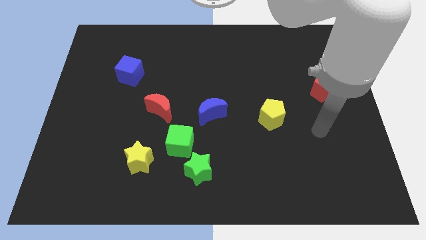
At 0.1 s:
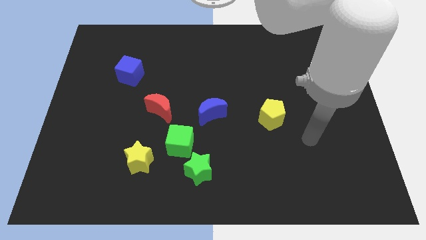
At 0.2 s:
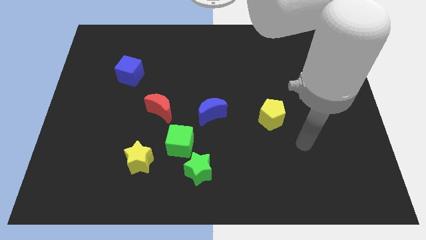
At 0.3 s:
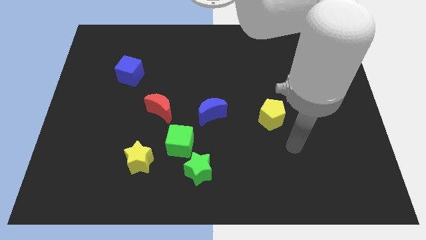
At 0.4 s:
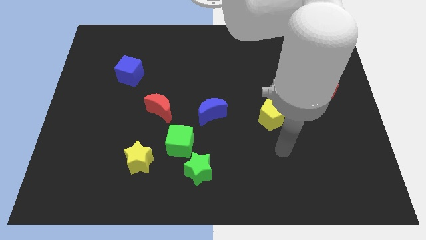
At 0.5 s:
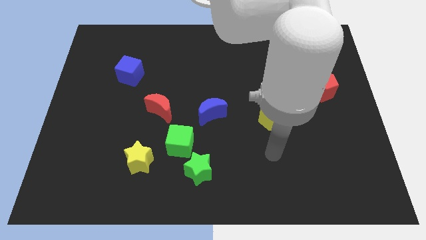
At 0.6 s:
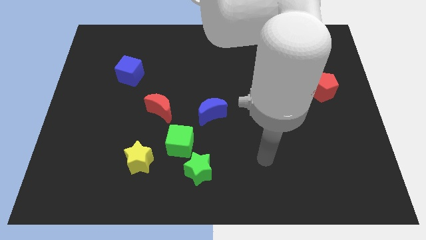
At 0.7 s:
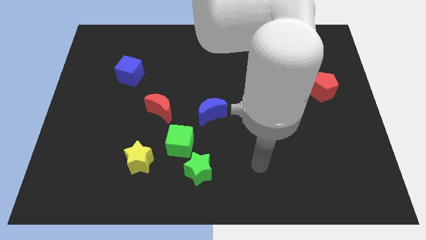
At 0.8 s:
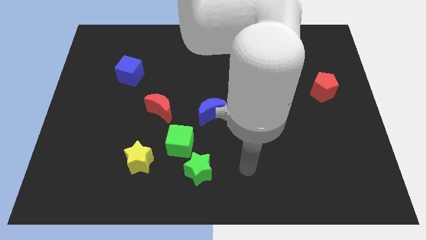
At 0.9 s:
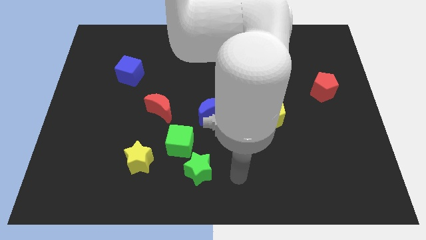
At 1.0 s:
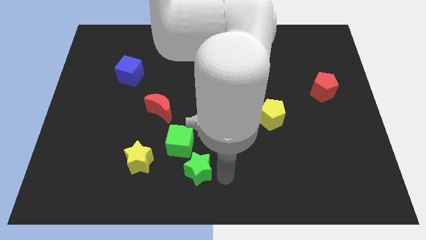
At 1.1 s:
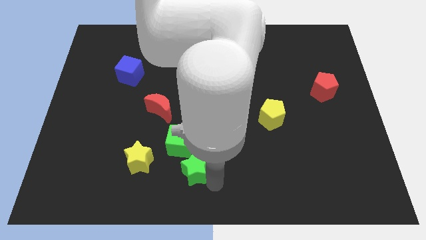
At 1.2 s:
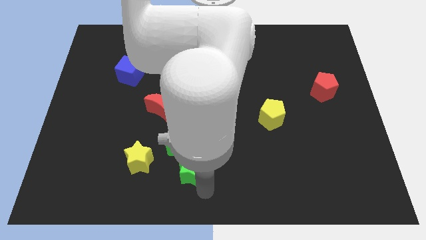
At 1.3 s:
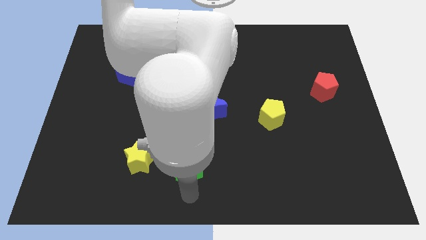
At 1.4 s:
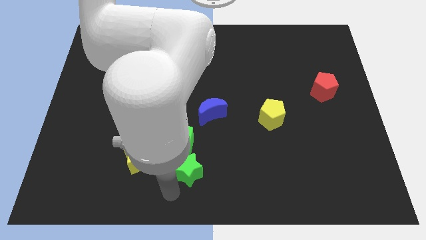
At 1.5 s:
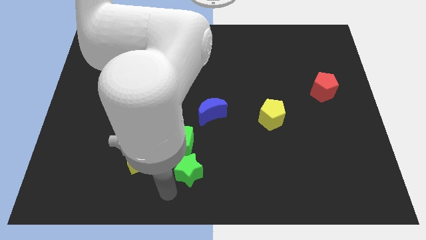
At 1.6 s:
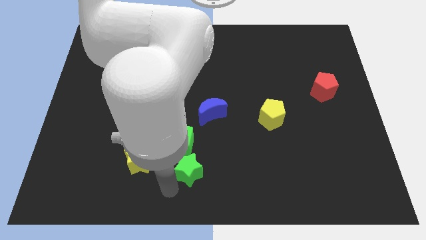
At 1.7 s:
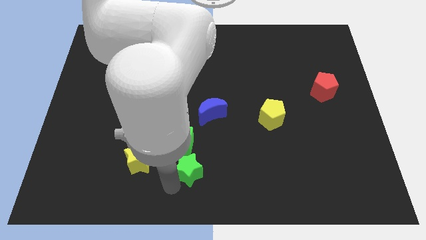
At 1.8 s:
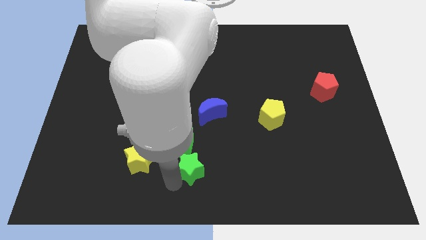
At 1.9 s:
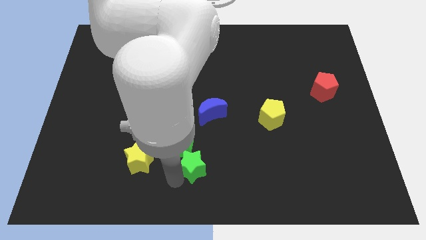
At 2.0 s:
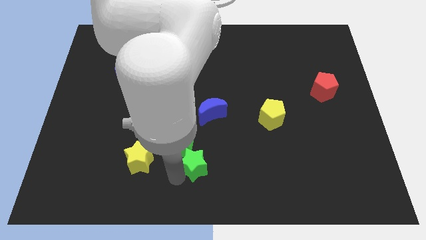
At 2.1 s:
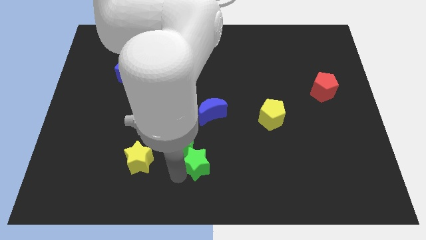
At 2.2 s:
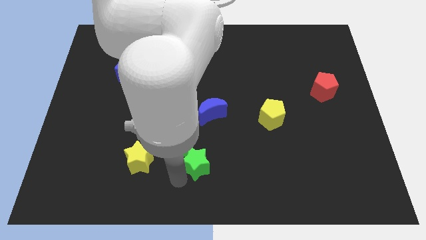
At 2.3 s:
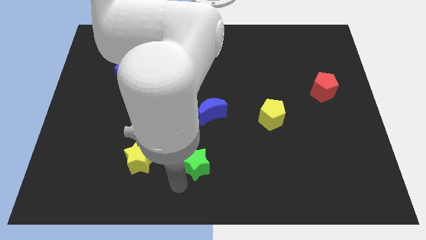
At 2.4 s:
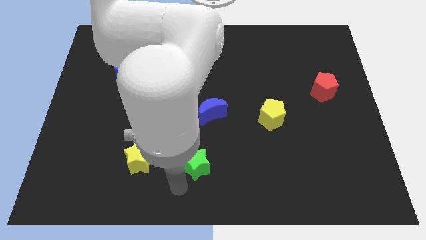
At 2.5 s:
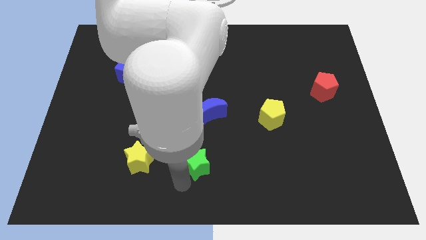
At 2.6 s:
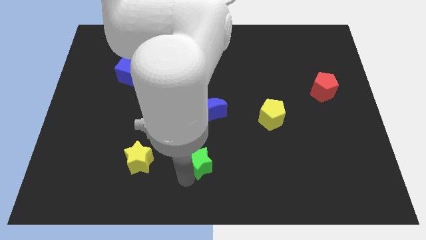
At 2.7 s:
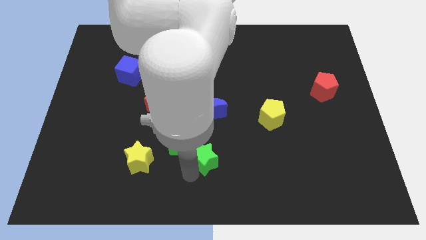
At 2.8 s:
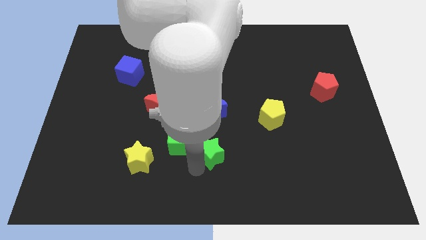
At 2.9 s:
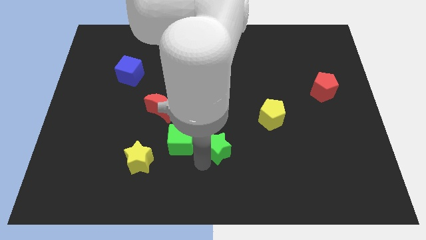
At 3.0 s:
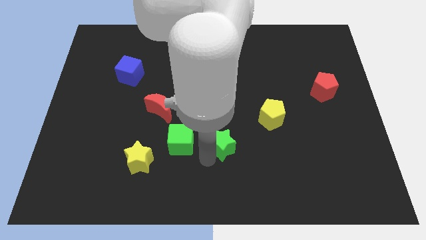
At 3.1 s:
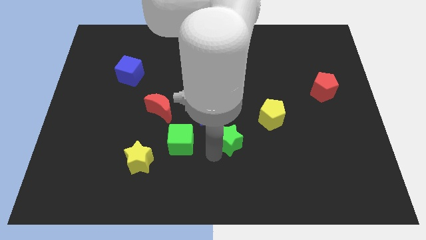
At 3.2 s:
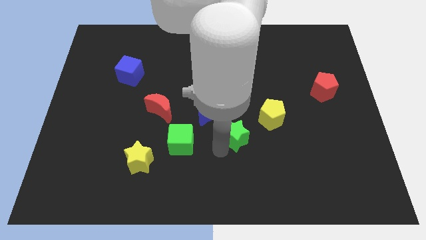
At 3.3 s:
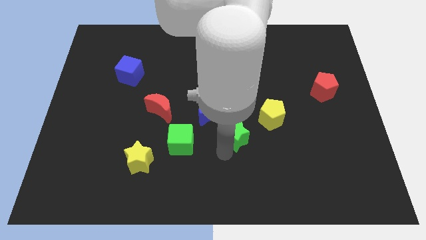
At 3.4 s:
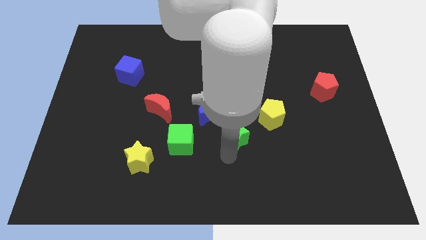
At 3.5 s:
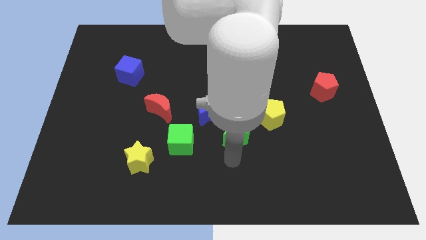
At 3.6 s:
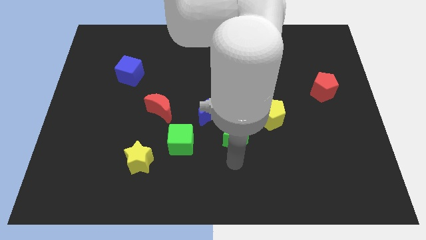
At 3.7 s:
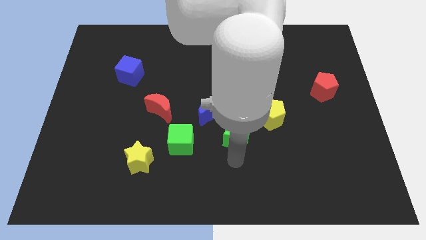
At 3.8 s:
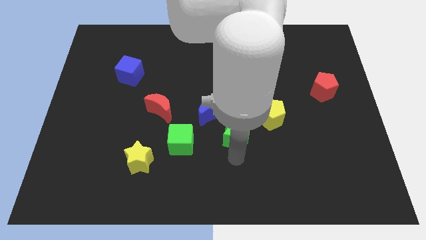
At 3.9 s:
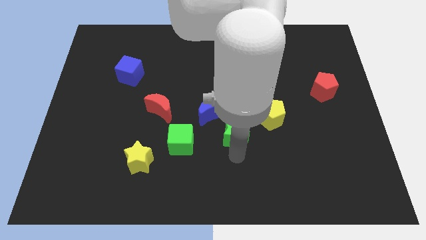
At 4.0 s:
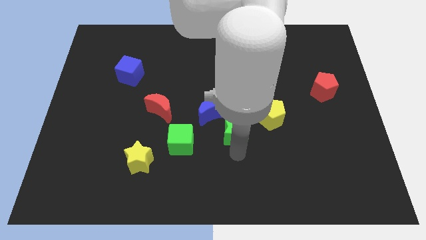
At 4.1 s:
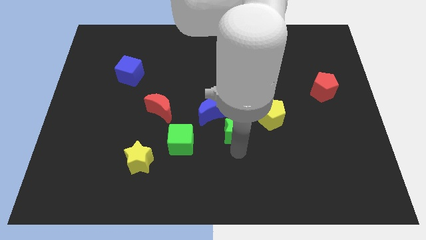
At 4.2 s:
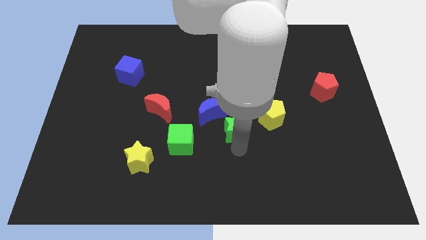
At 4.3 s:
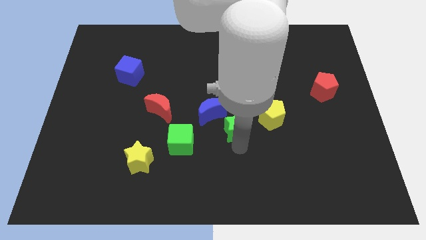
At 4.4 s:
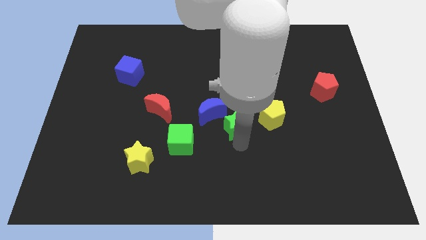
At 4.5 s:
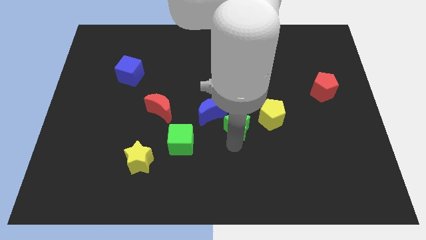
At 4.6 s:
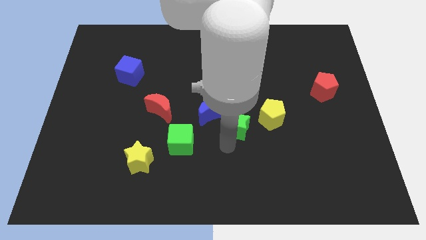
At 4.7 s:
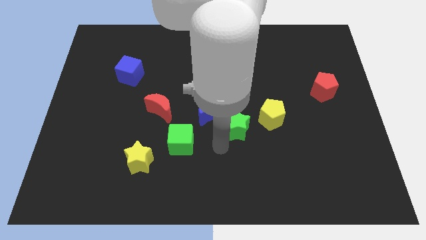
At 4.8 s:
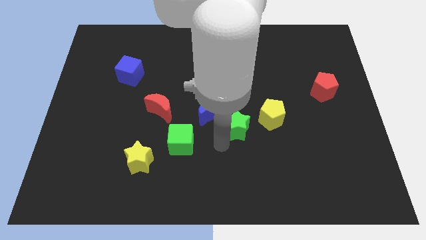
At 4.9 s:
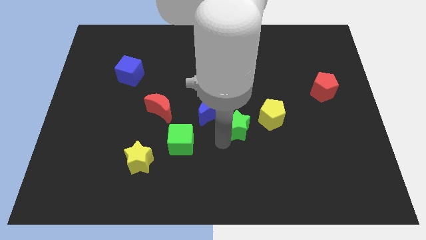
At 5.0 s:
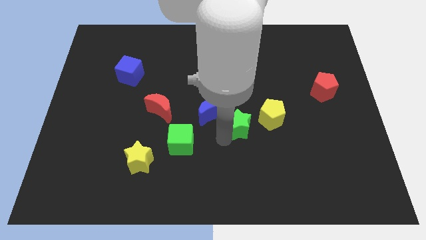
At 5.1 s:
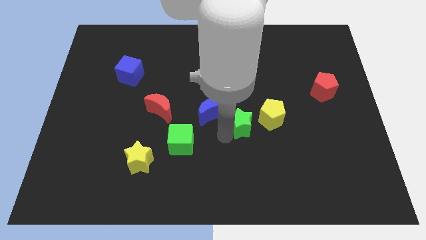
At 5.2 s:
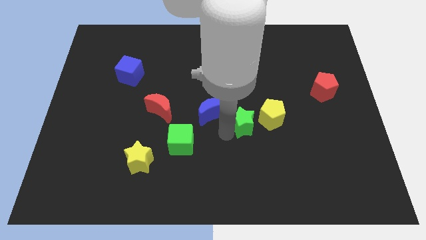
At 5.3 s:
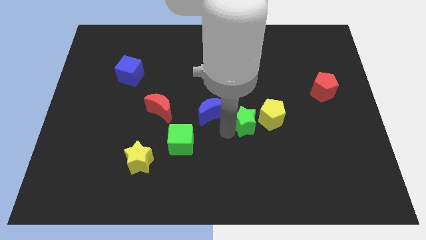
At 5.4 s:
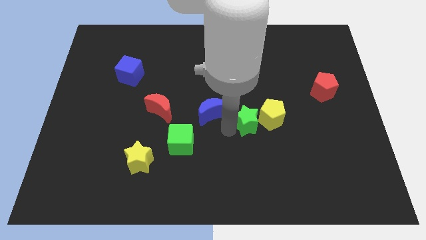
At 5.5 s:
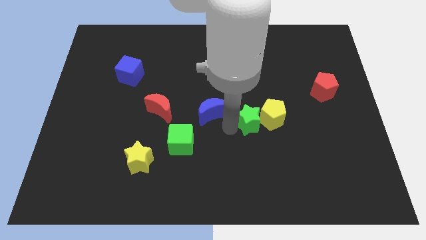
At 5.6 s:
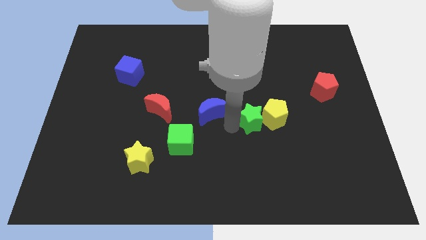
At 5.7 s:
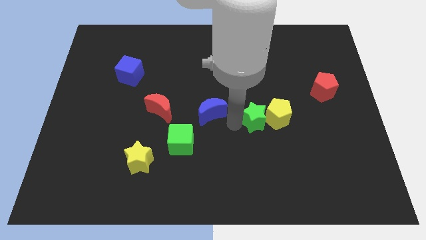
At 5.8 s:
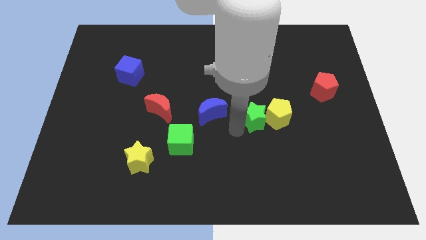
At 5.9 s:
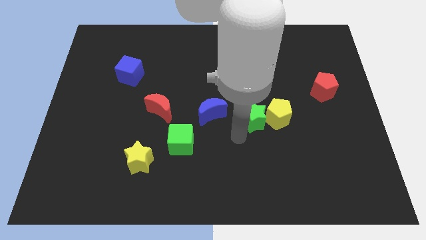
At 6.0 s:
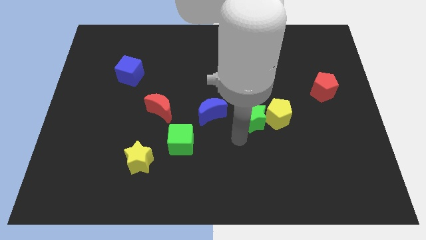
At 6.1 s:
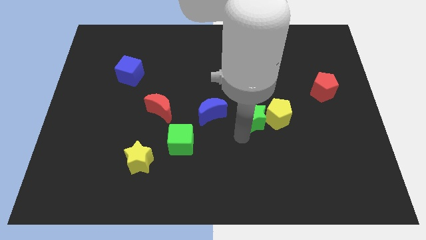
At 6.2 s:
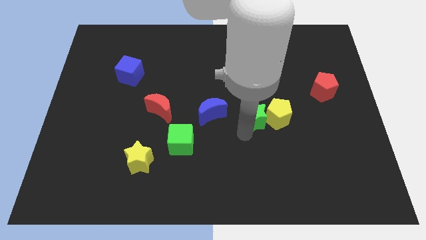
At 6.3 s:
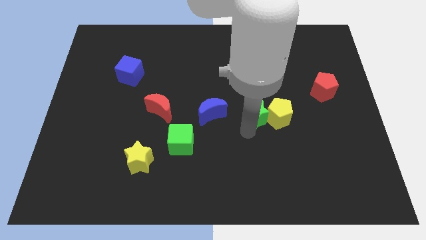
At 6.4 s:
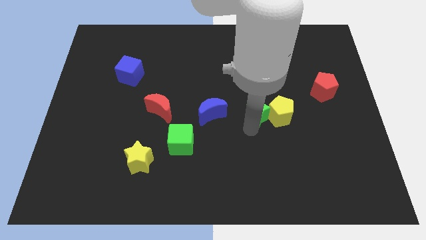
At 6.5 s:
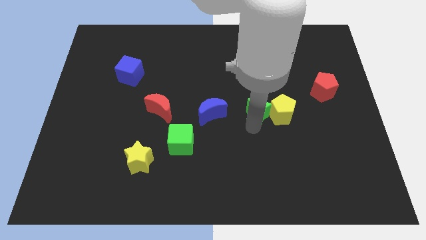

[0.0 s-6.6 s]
move the green star diagonally up and to the right

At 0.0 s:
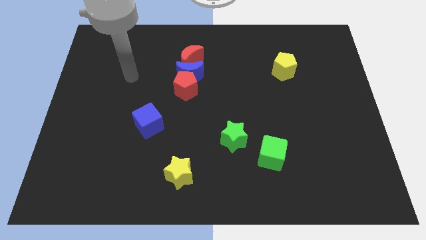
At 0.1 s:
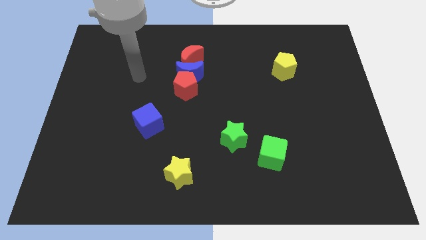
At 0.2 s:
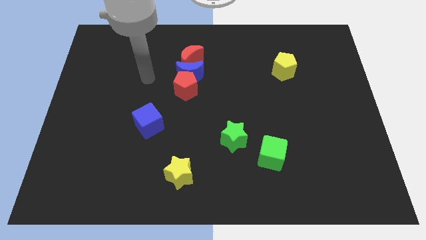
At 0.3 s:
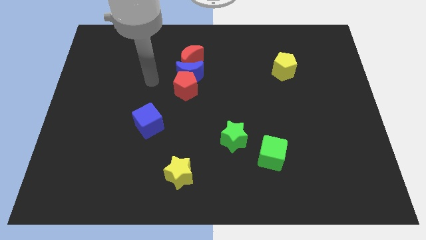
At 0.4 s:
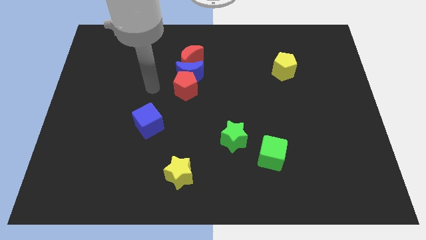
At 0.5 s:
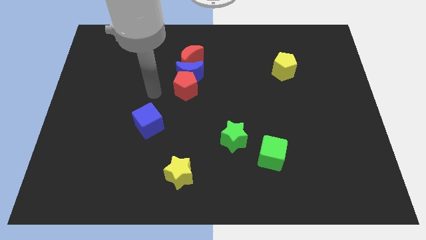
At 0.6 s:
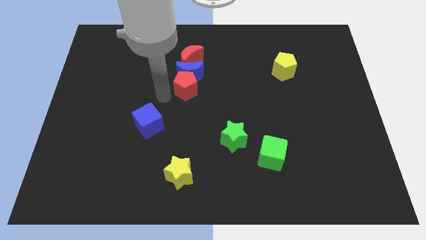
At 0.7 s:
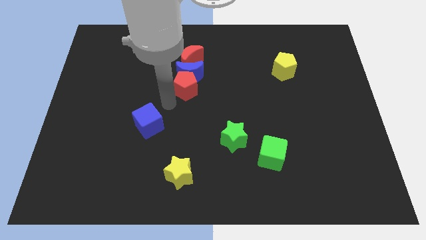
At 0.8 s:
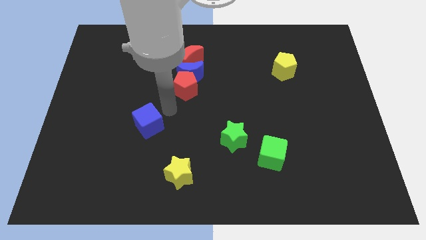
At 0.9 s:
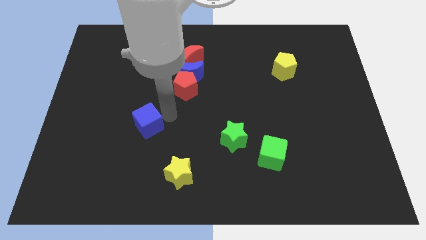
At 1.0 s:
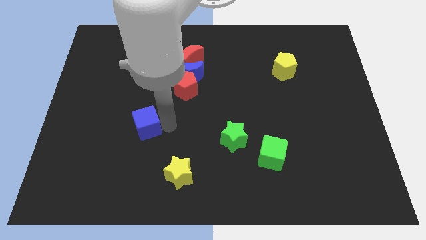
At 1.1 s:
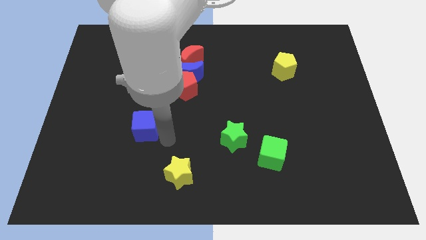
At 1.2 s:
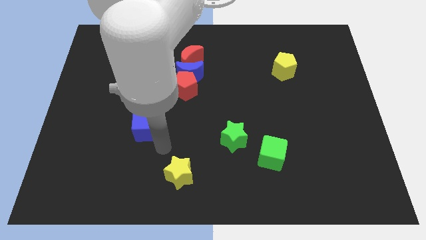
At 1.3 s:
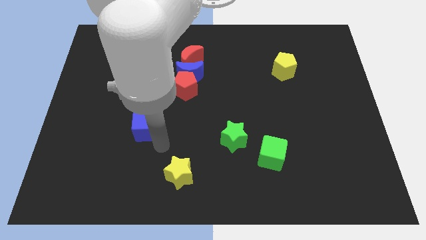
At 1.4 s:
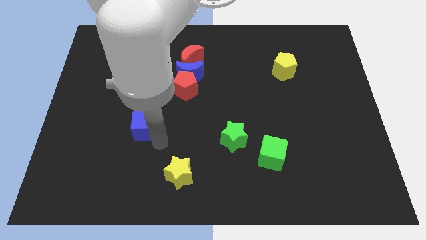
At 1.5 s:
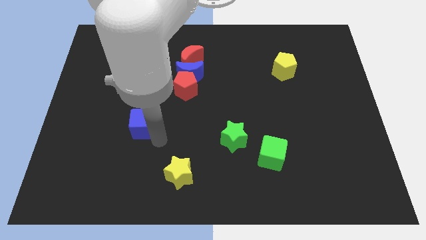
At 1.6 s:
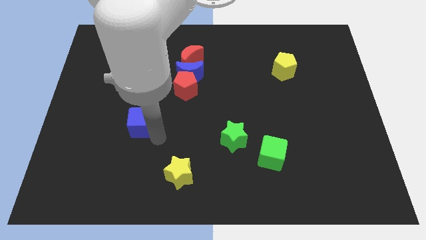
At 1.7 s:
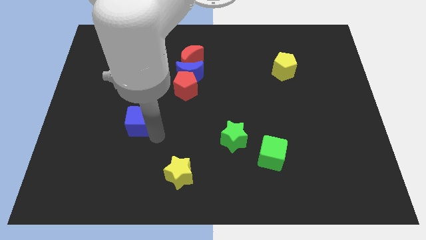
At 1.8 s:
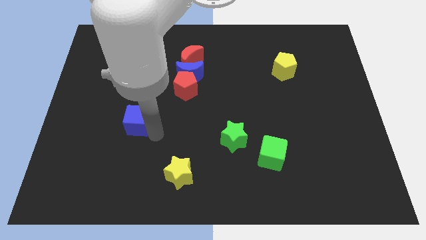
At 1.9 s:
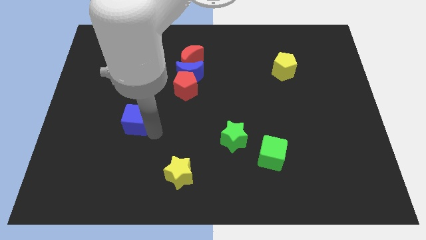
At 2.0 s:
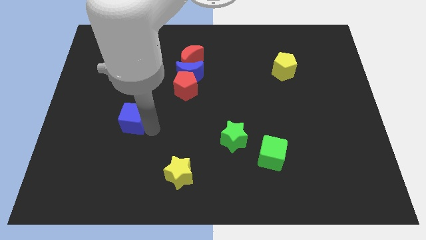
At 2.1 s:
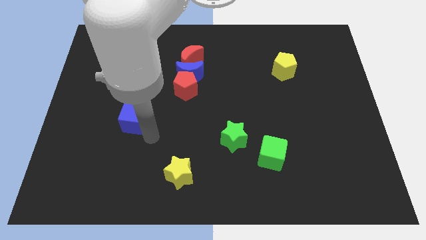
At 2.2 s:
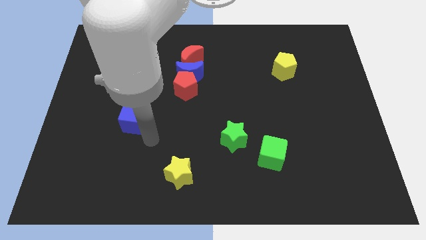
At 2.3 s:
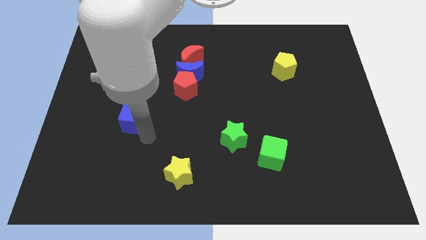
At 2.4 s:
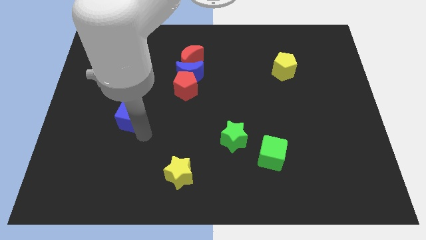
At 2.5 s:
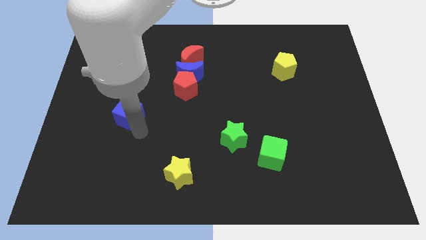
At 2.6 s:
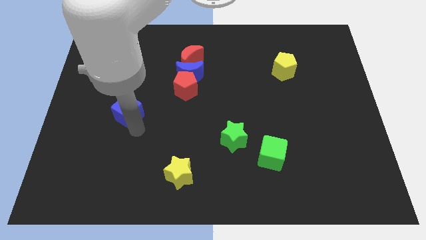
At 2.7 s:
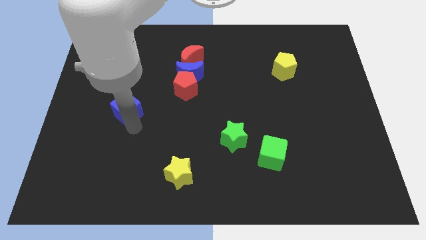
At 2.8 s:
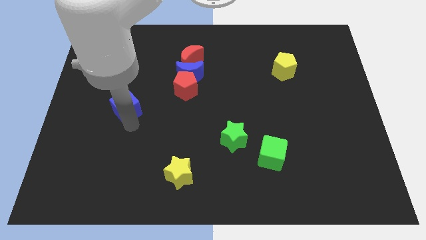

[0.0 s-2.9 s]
move the blue cube slightly upwards and then to the left
